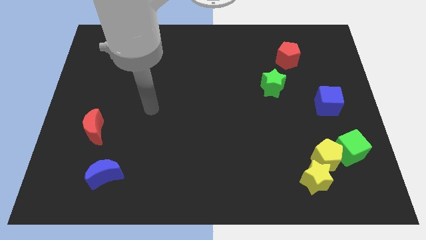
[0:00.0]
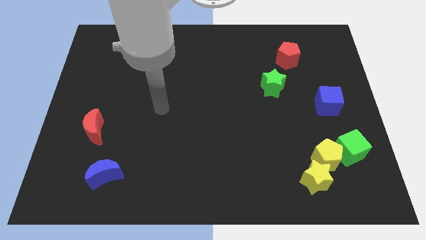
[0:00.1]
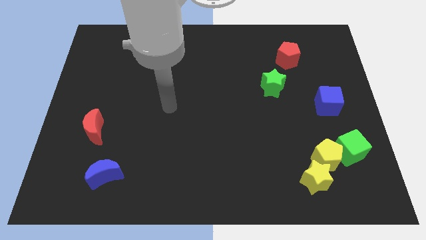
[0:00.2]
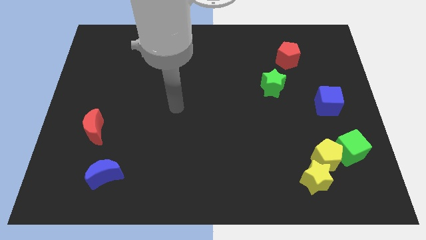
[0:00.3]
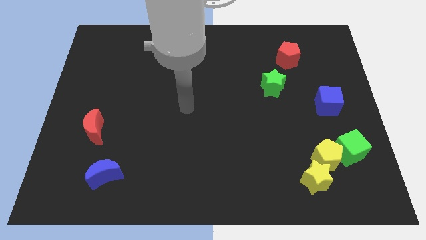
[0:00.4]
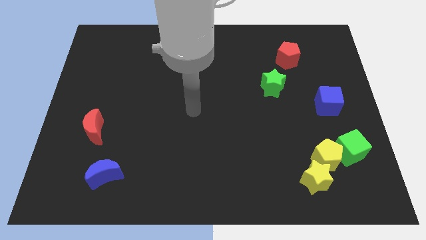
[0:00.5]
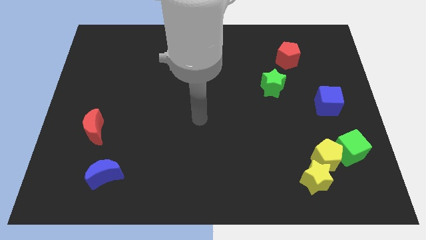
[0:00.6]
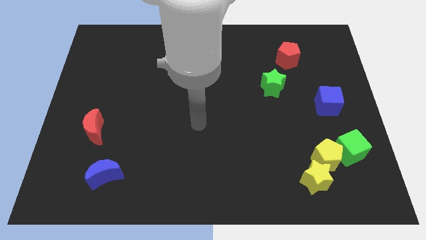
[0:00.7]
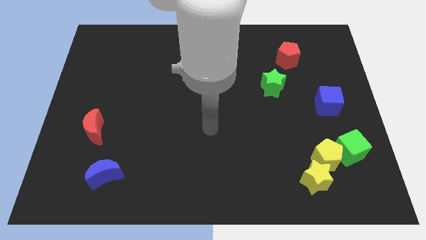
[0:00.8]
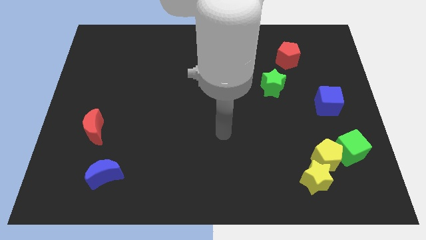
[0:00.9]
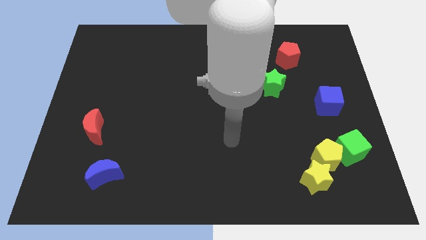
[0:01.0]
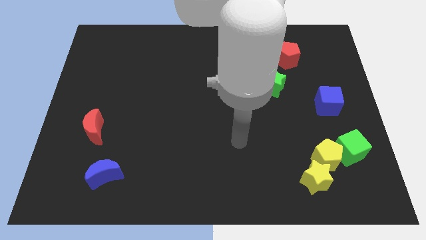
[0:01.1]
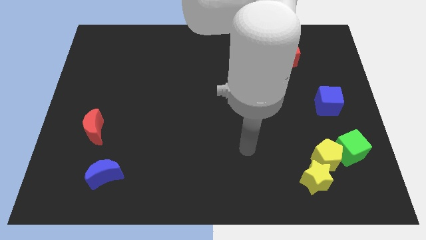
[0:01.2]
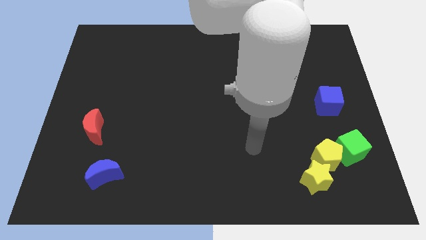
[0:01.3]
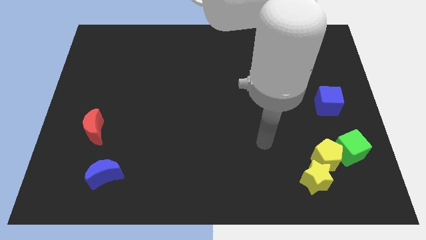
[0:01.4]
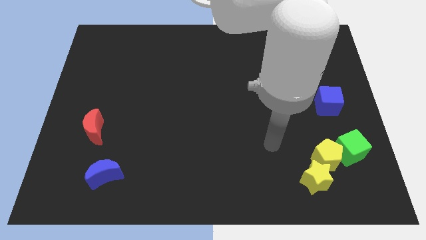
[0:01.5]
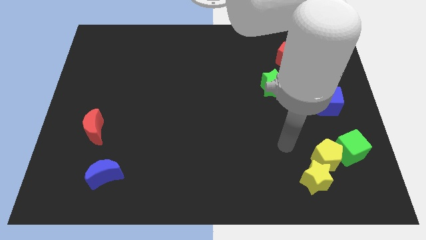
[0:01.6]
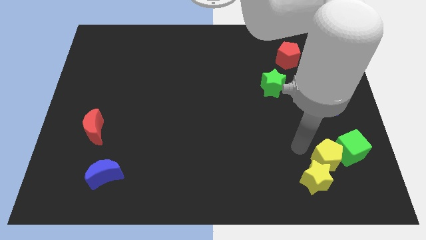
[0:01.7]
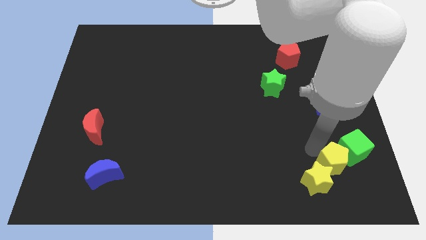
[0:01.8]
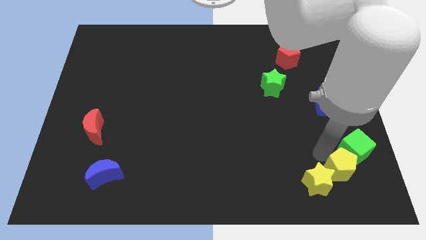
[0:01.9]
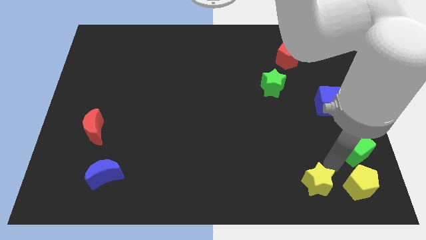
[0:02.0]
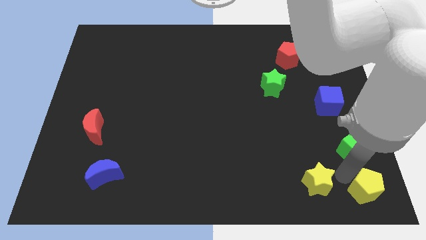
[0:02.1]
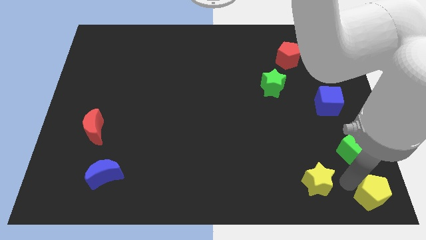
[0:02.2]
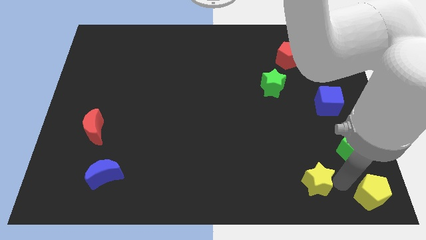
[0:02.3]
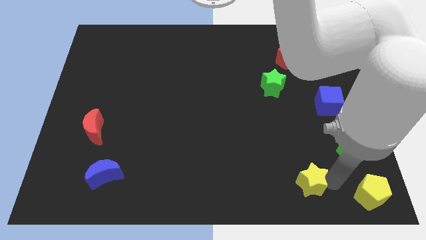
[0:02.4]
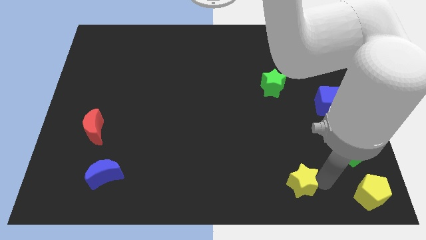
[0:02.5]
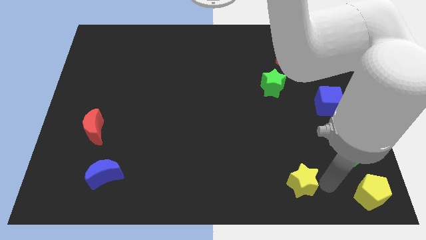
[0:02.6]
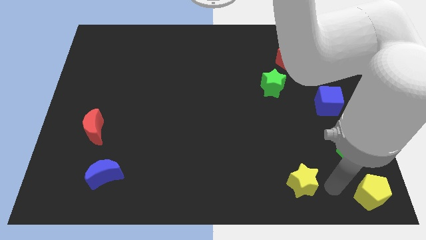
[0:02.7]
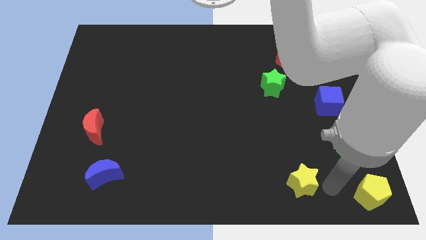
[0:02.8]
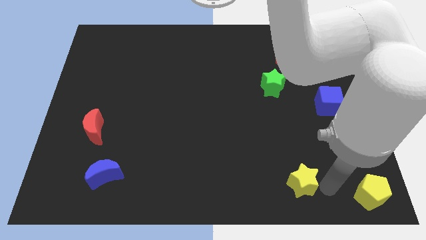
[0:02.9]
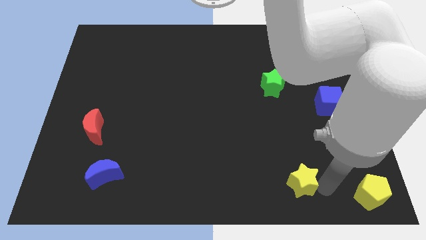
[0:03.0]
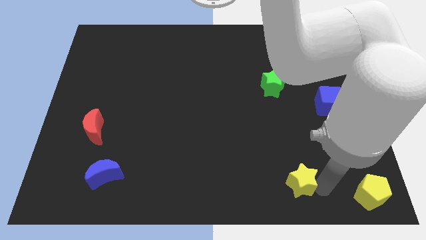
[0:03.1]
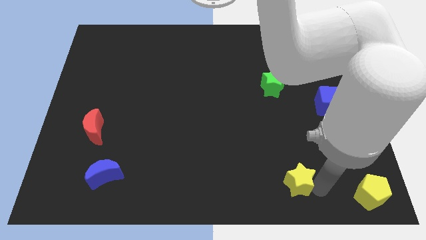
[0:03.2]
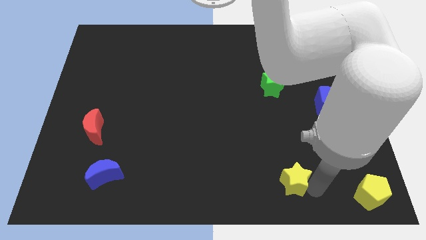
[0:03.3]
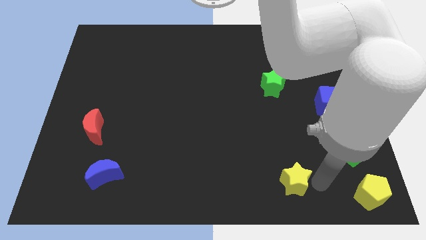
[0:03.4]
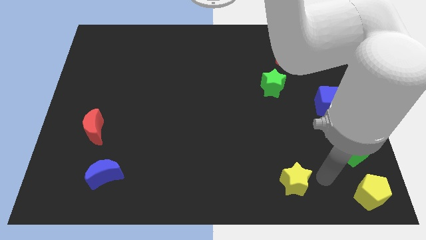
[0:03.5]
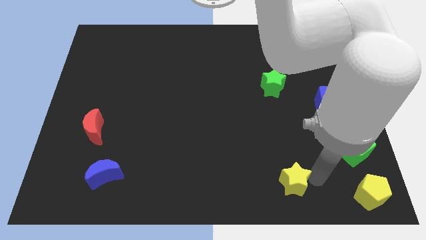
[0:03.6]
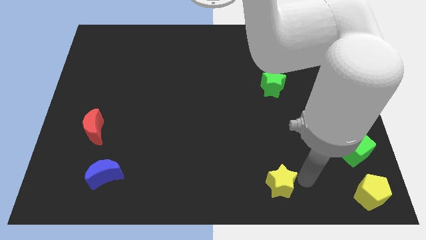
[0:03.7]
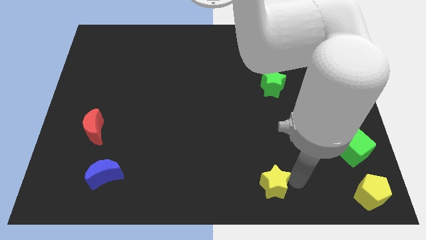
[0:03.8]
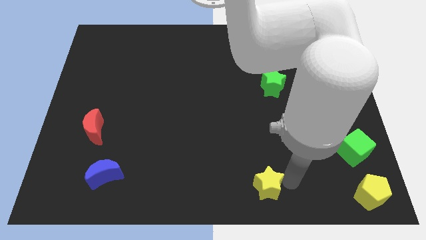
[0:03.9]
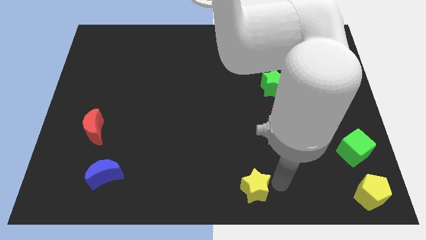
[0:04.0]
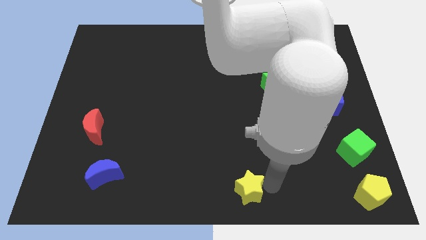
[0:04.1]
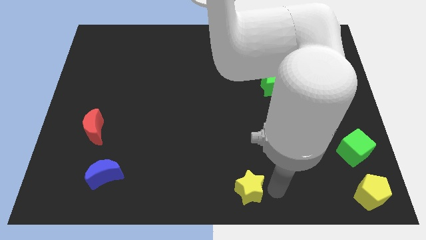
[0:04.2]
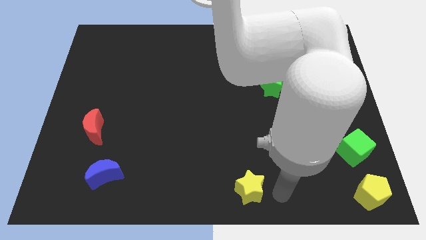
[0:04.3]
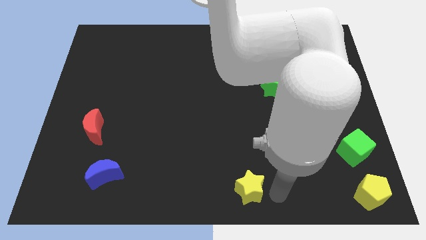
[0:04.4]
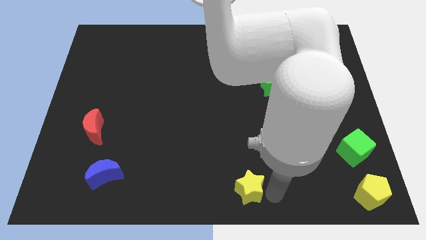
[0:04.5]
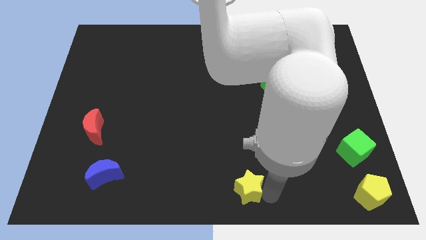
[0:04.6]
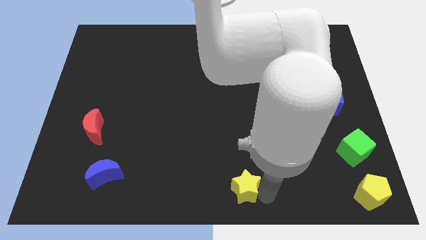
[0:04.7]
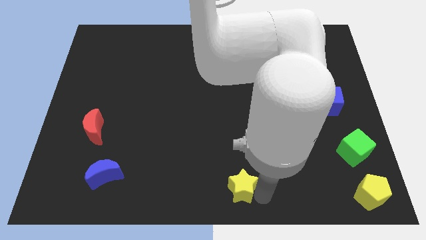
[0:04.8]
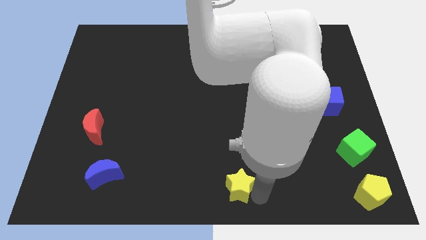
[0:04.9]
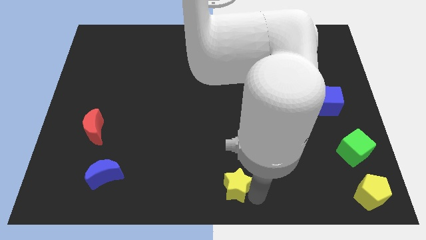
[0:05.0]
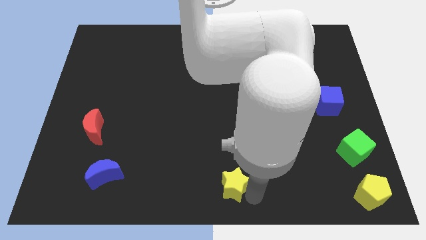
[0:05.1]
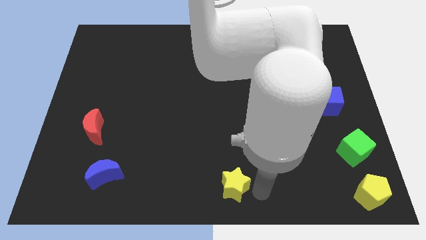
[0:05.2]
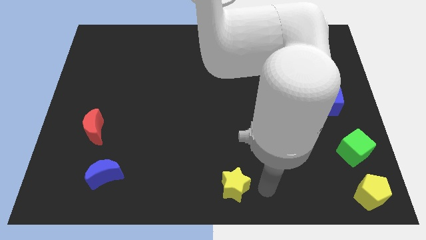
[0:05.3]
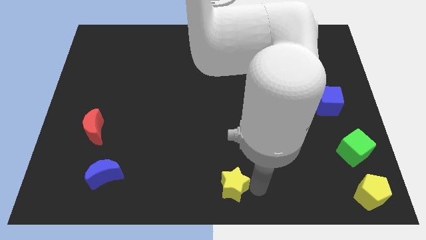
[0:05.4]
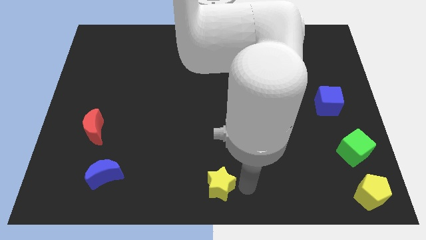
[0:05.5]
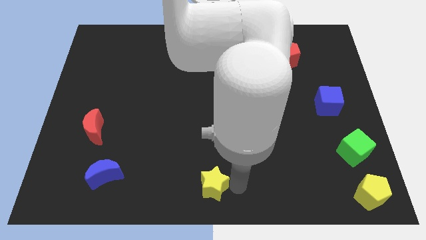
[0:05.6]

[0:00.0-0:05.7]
slide the yellow star to the left

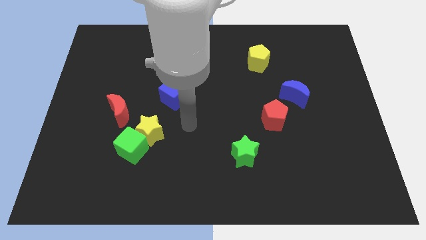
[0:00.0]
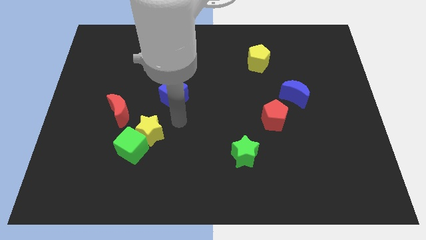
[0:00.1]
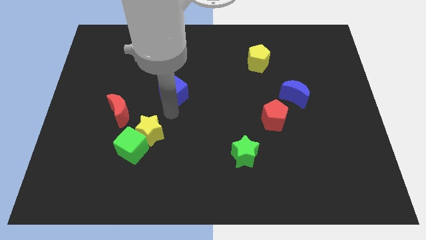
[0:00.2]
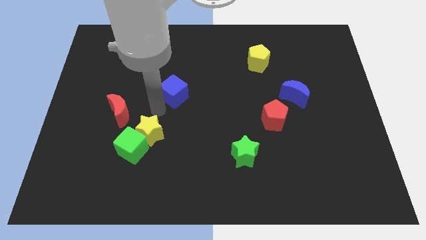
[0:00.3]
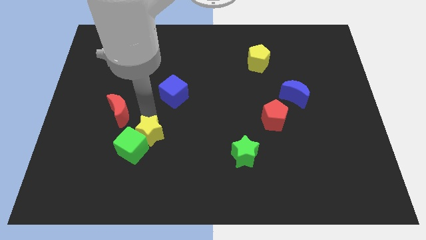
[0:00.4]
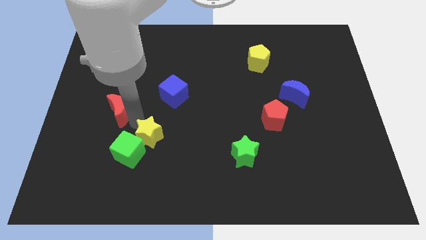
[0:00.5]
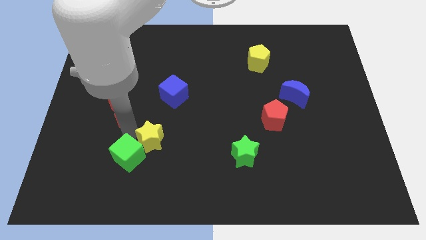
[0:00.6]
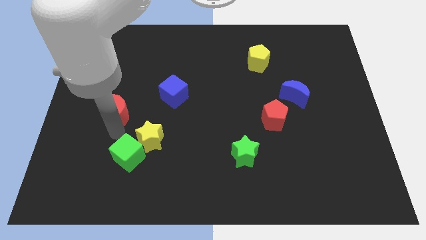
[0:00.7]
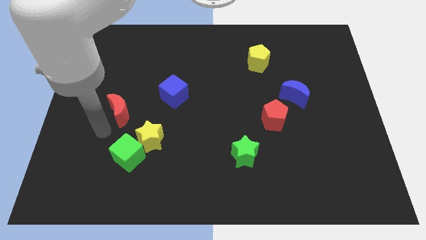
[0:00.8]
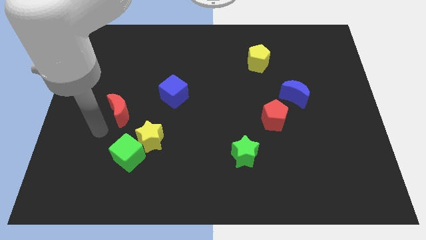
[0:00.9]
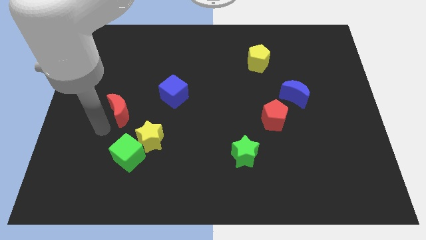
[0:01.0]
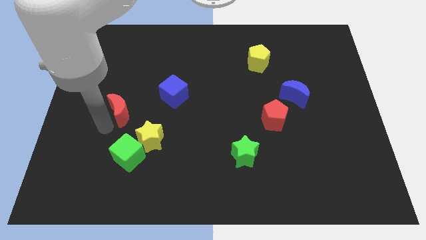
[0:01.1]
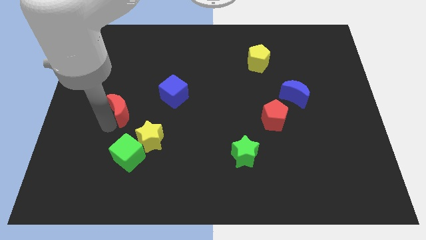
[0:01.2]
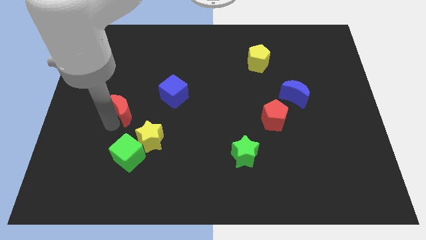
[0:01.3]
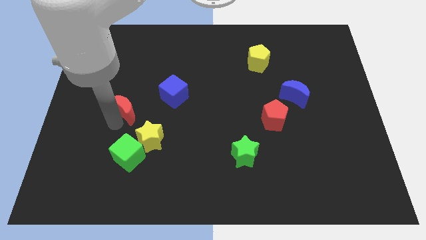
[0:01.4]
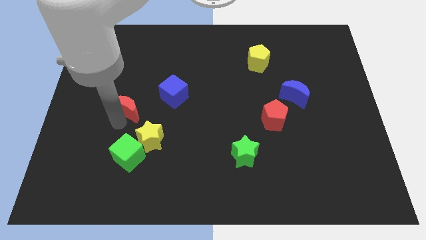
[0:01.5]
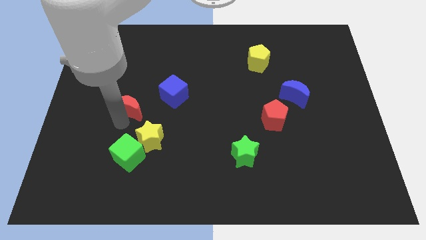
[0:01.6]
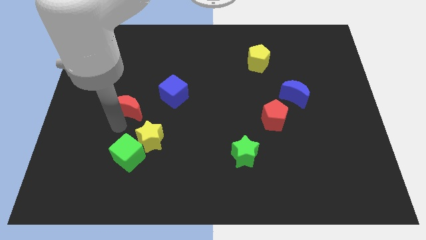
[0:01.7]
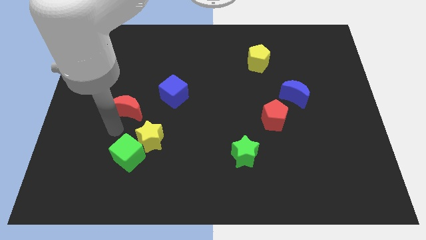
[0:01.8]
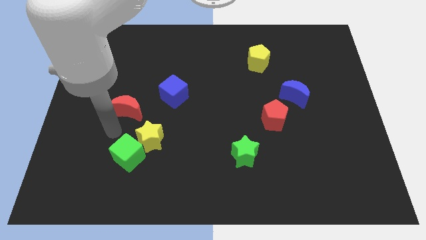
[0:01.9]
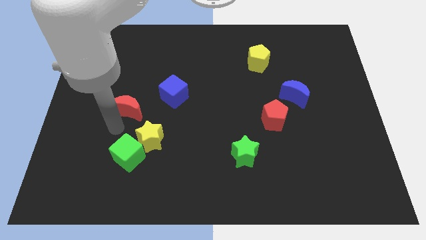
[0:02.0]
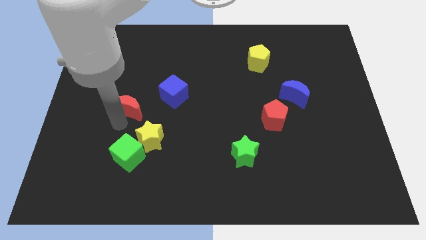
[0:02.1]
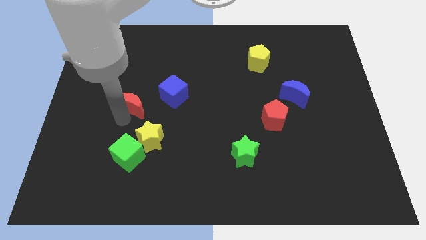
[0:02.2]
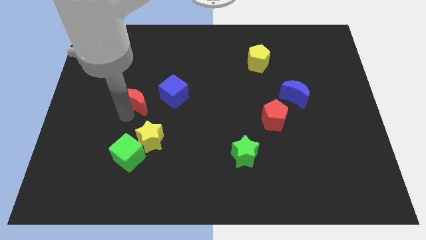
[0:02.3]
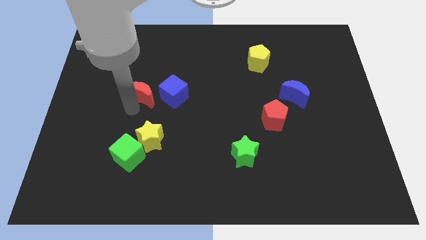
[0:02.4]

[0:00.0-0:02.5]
move the red moon a little diagonally upwards and to the right
